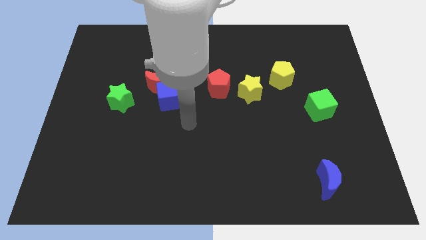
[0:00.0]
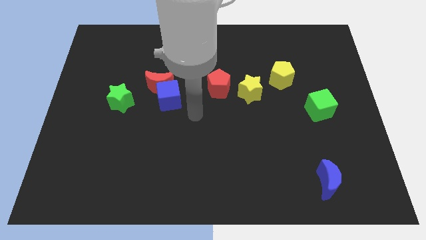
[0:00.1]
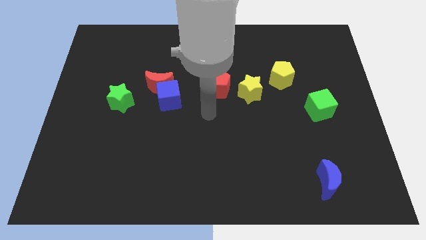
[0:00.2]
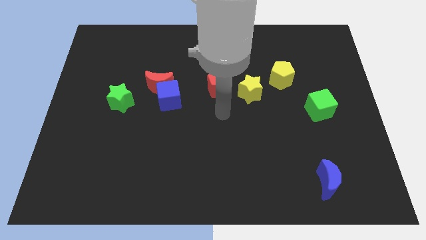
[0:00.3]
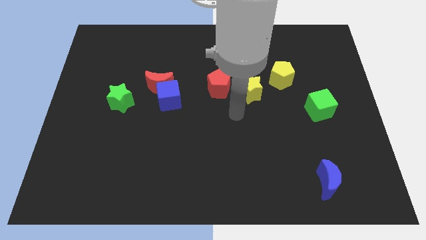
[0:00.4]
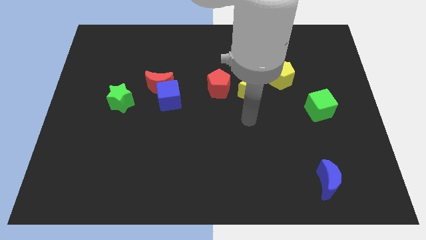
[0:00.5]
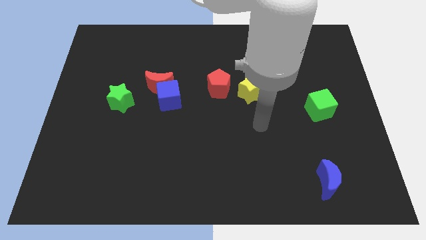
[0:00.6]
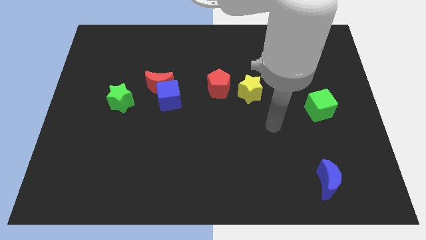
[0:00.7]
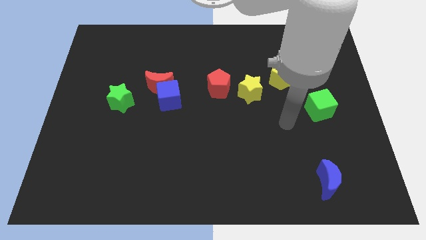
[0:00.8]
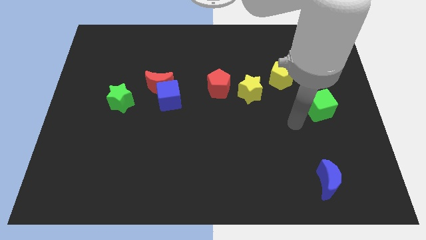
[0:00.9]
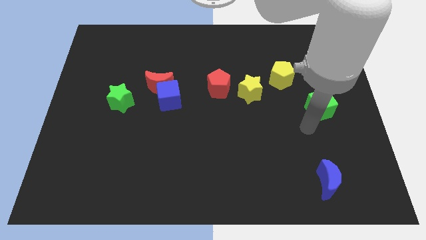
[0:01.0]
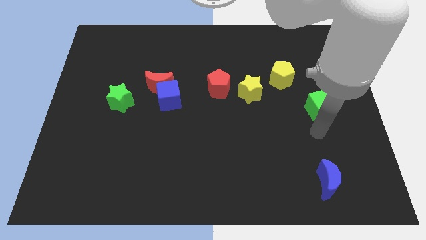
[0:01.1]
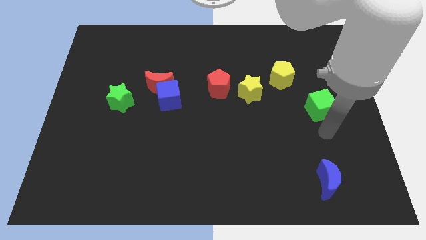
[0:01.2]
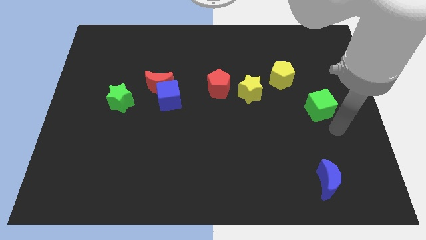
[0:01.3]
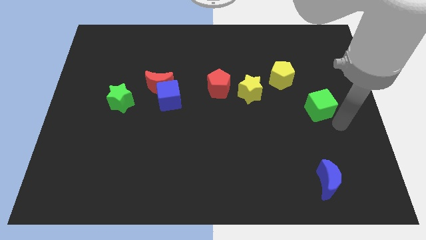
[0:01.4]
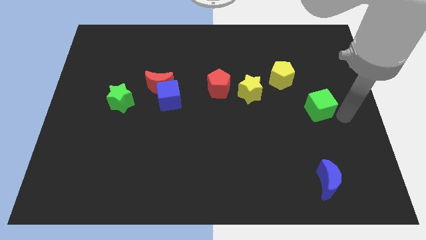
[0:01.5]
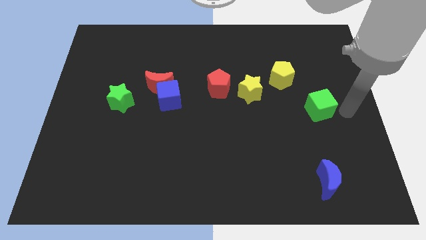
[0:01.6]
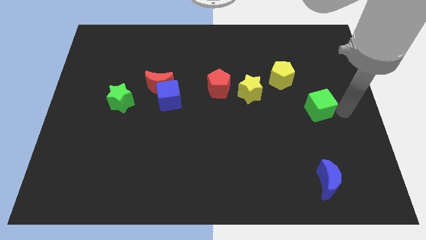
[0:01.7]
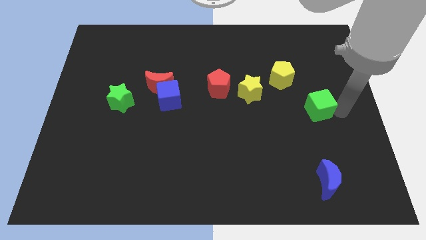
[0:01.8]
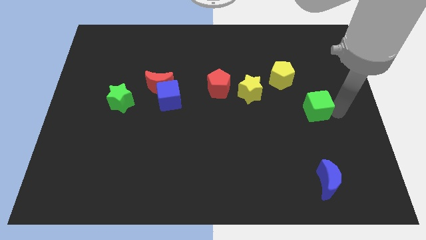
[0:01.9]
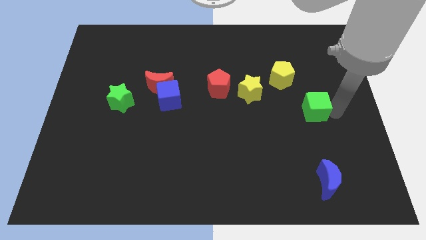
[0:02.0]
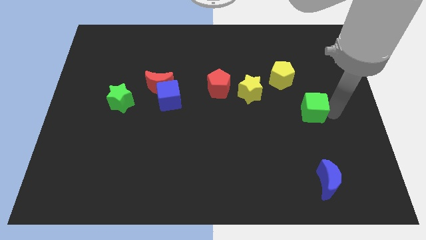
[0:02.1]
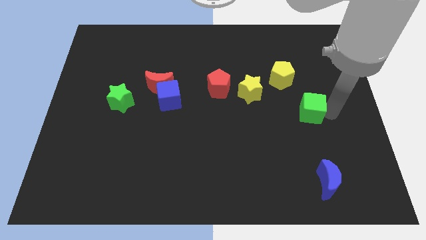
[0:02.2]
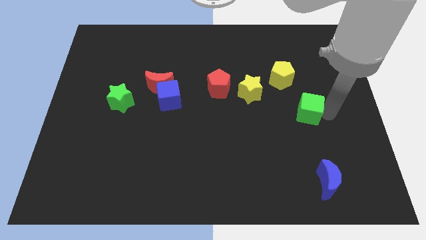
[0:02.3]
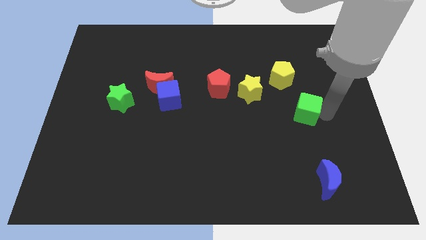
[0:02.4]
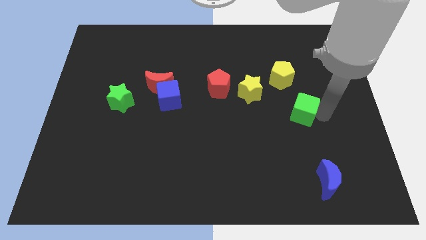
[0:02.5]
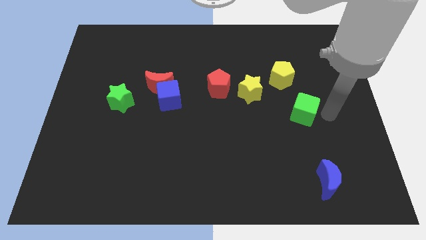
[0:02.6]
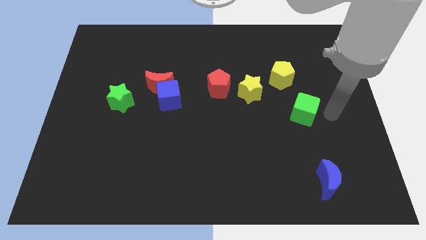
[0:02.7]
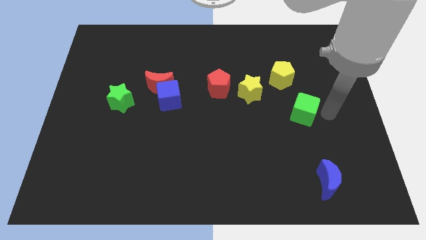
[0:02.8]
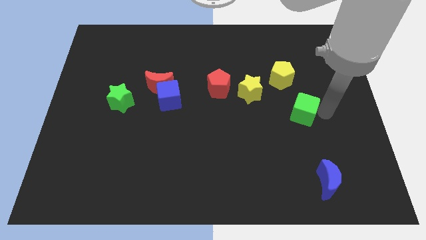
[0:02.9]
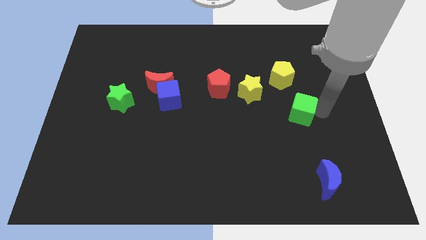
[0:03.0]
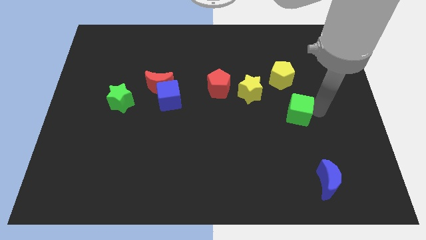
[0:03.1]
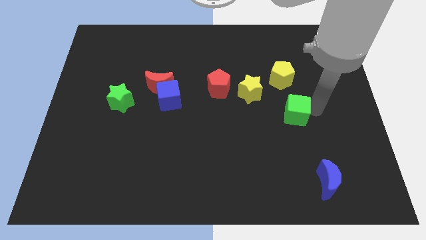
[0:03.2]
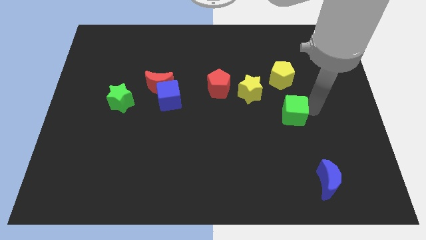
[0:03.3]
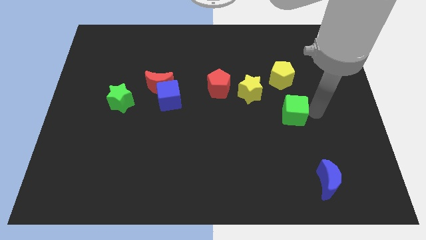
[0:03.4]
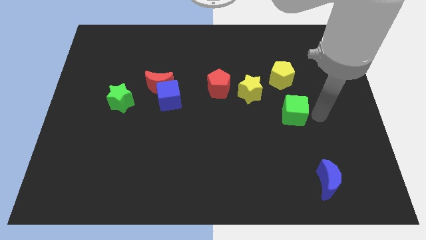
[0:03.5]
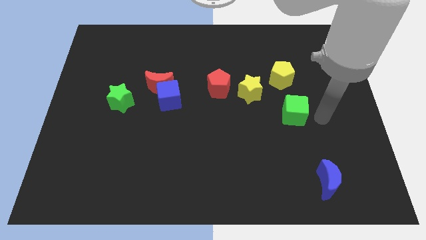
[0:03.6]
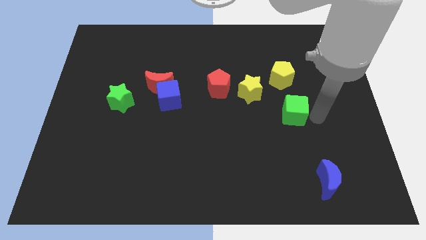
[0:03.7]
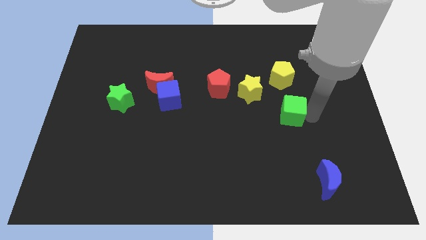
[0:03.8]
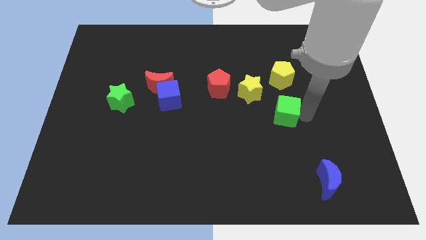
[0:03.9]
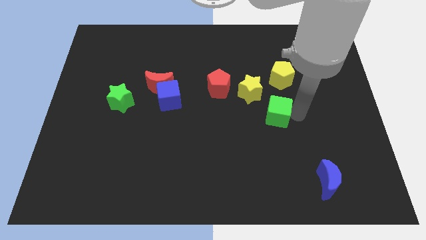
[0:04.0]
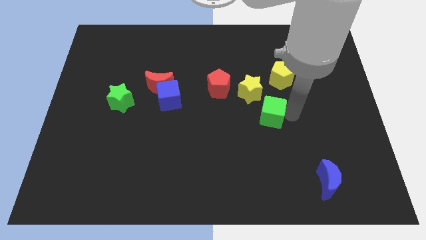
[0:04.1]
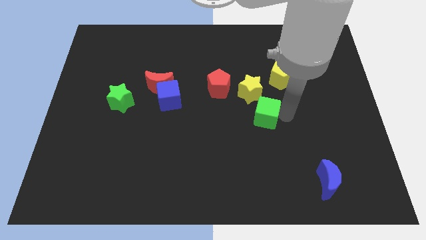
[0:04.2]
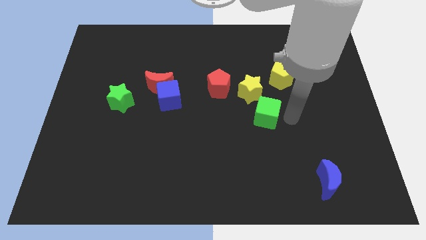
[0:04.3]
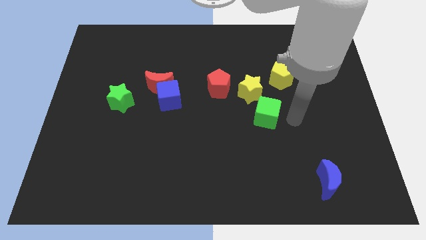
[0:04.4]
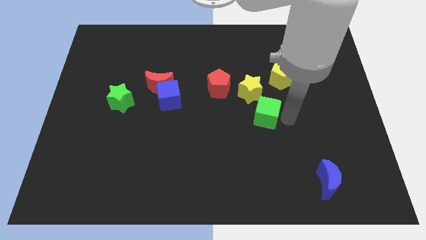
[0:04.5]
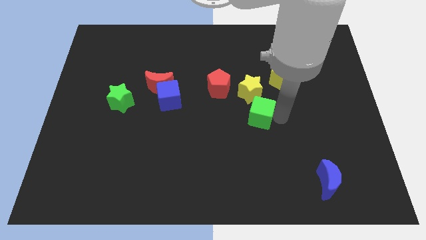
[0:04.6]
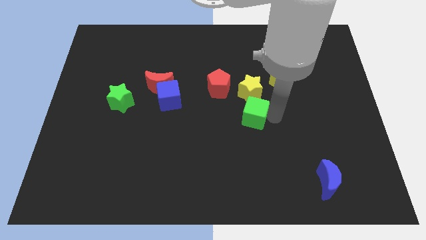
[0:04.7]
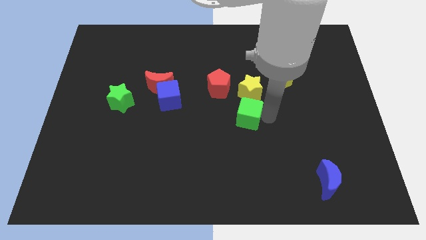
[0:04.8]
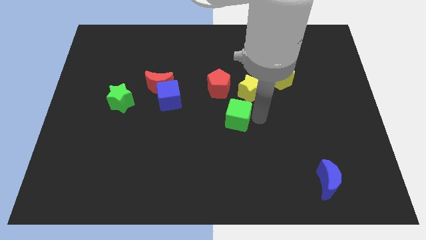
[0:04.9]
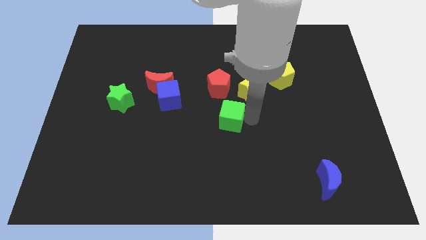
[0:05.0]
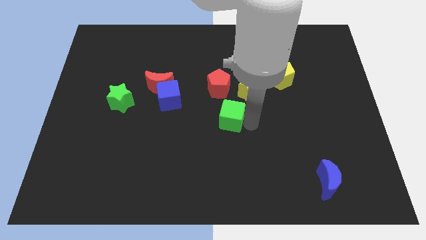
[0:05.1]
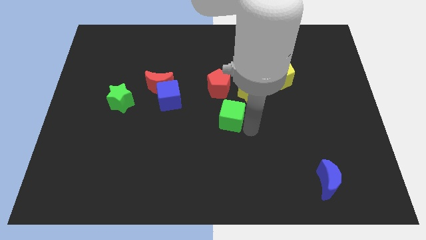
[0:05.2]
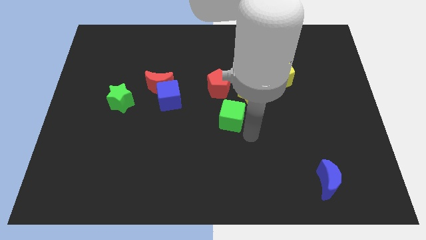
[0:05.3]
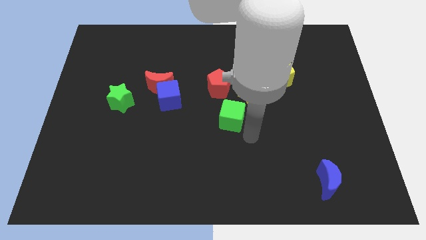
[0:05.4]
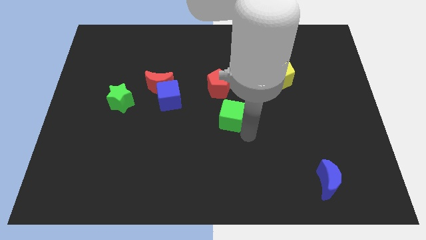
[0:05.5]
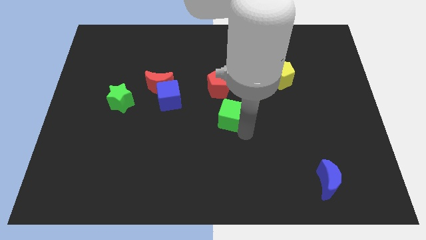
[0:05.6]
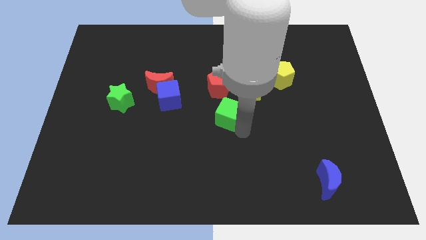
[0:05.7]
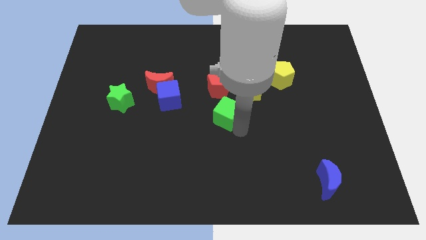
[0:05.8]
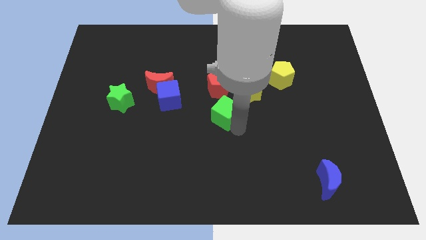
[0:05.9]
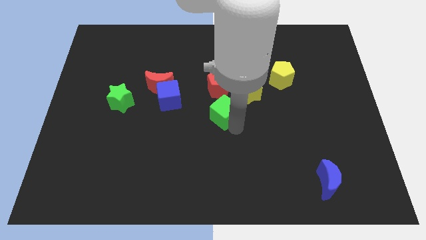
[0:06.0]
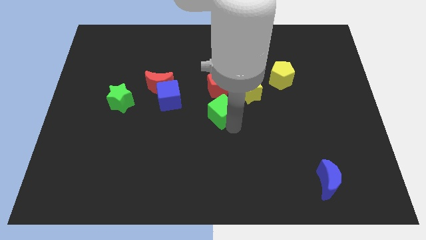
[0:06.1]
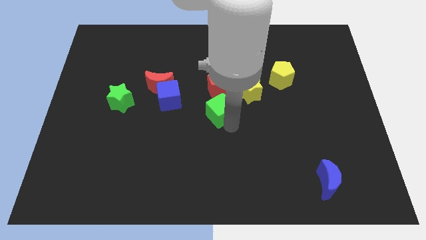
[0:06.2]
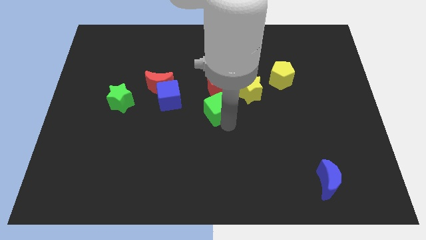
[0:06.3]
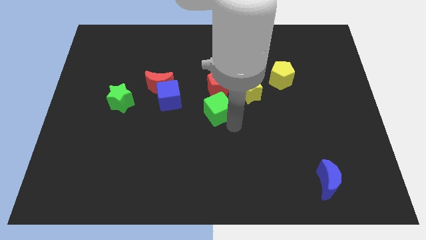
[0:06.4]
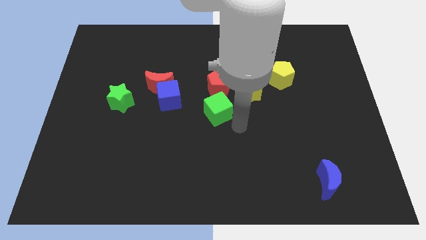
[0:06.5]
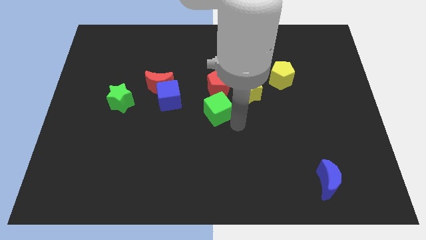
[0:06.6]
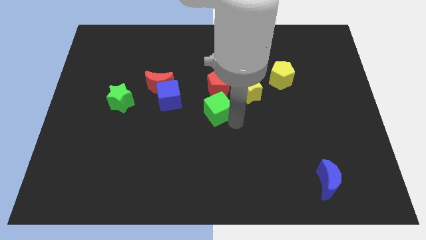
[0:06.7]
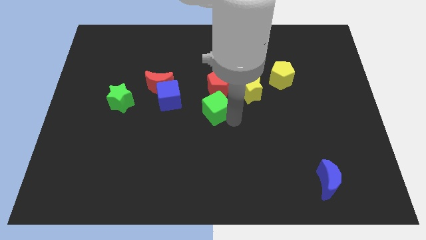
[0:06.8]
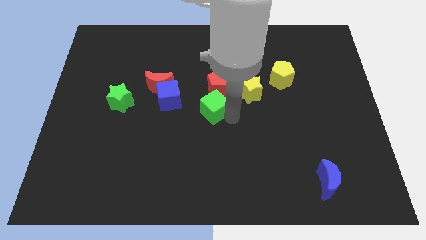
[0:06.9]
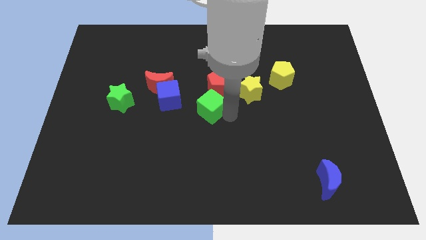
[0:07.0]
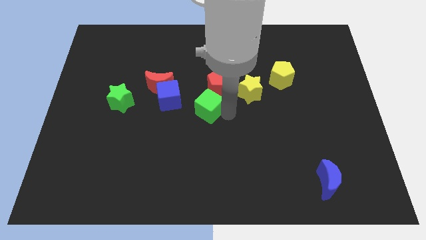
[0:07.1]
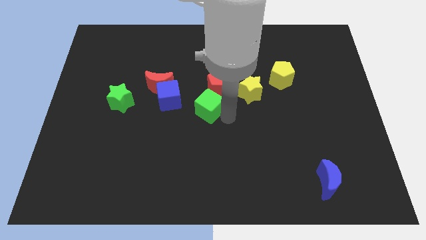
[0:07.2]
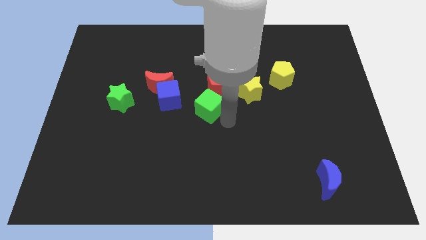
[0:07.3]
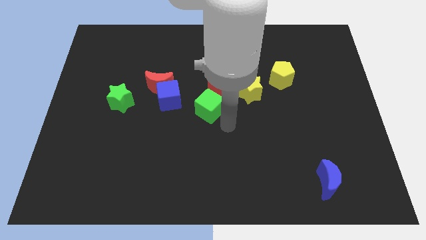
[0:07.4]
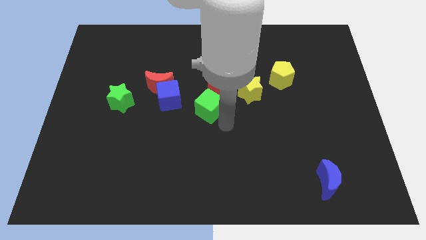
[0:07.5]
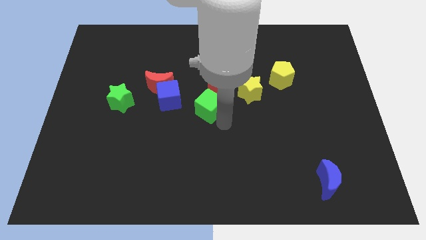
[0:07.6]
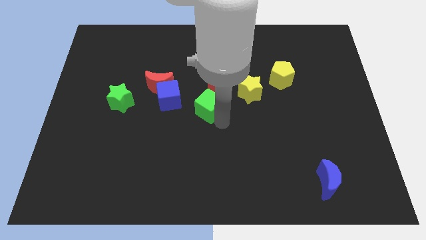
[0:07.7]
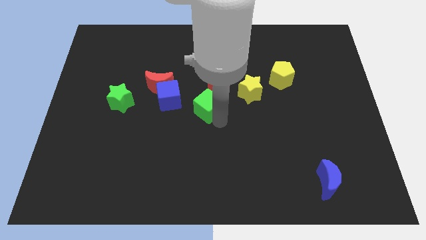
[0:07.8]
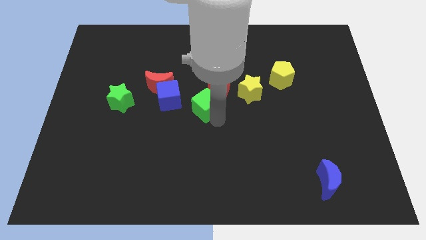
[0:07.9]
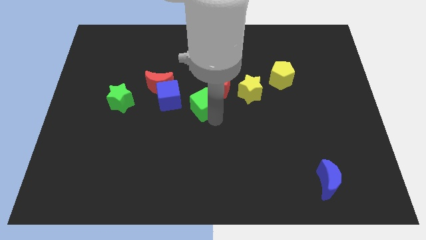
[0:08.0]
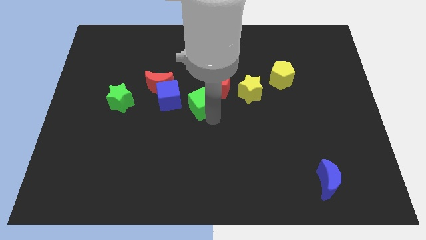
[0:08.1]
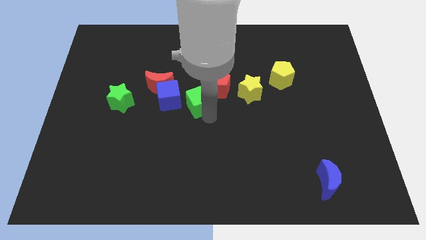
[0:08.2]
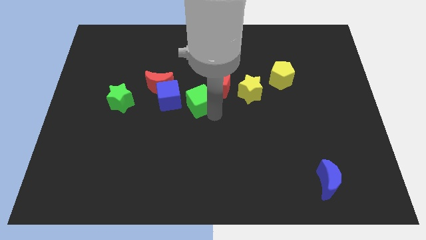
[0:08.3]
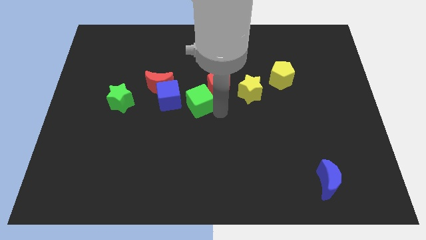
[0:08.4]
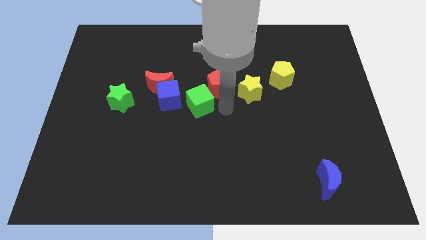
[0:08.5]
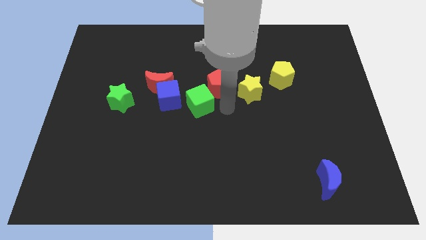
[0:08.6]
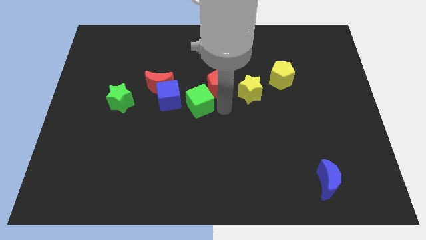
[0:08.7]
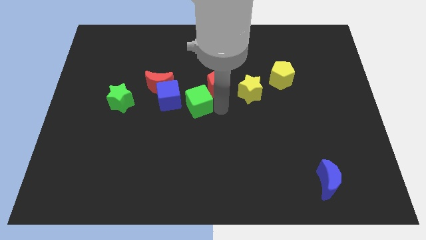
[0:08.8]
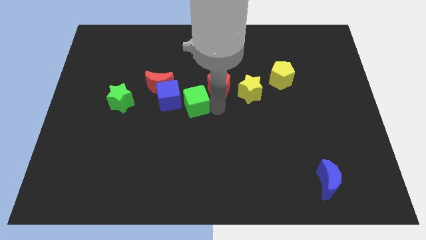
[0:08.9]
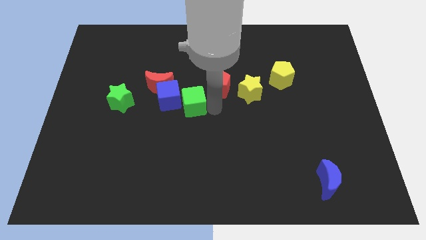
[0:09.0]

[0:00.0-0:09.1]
move the green cube to the blue cube
